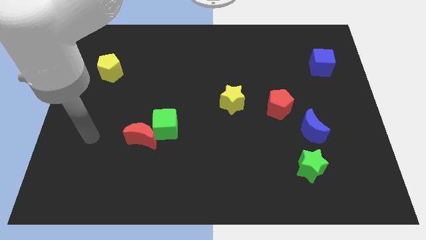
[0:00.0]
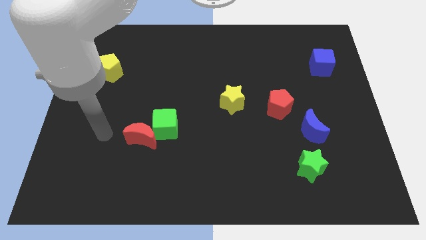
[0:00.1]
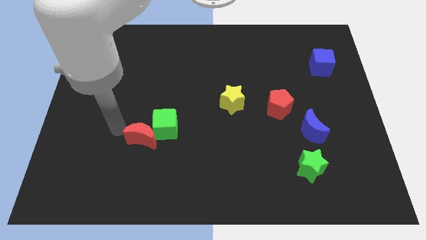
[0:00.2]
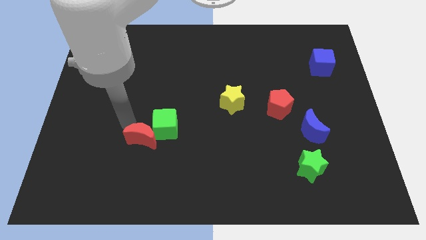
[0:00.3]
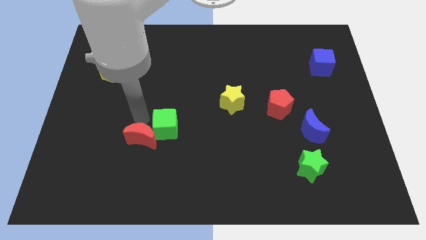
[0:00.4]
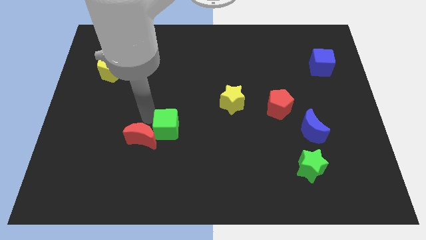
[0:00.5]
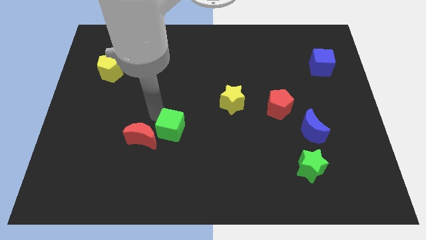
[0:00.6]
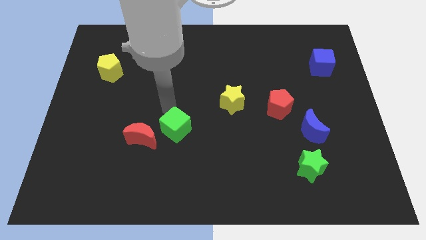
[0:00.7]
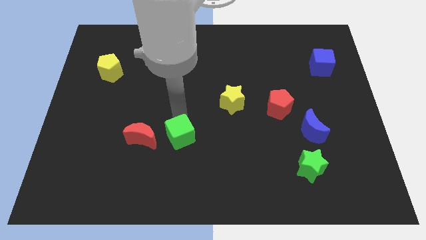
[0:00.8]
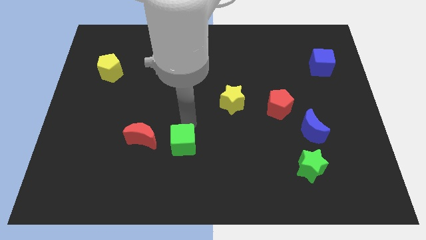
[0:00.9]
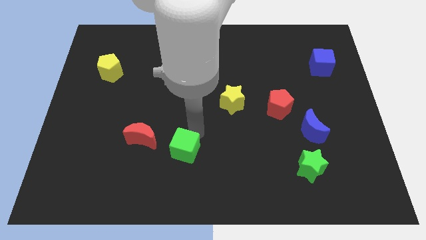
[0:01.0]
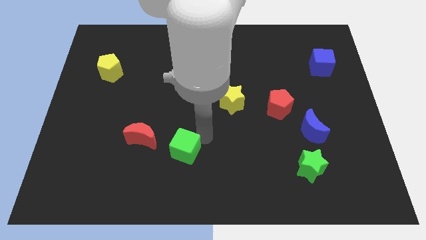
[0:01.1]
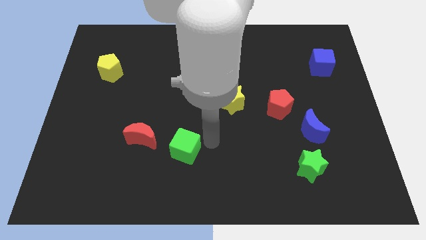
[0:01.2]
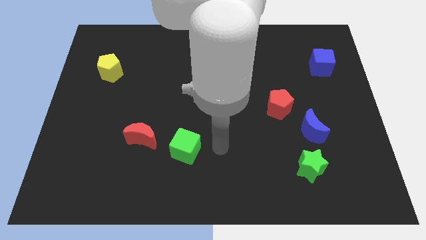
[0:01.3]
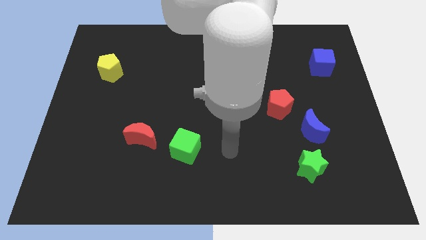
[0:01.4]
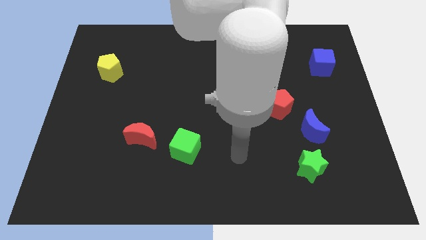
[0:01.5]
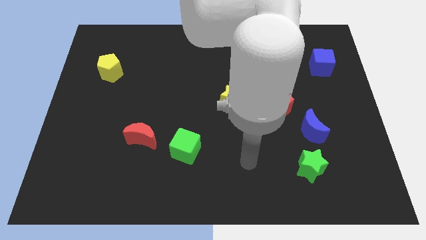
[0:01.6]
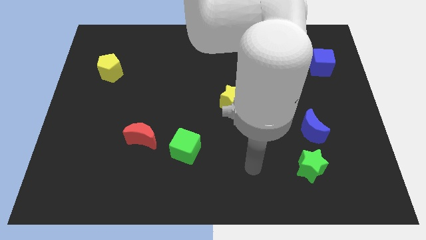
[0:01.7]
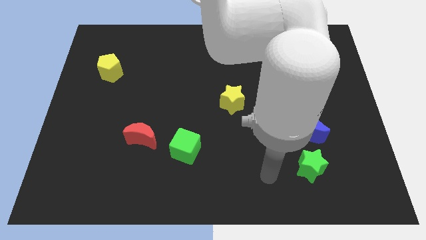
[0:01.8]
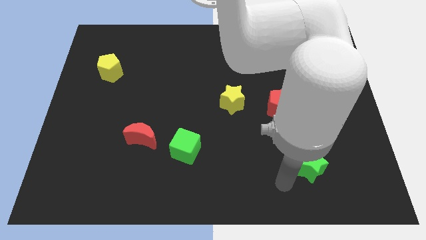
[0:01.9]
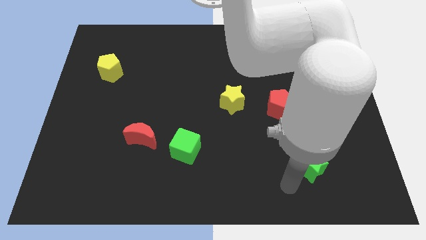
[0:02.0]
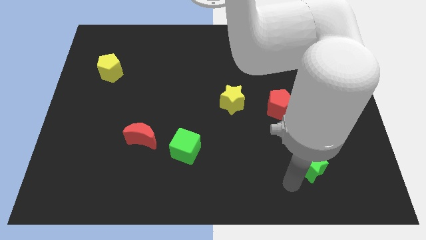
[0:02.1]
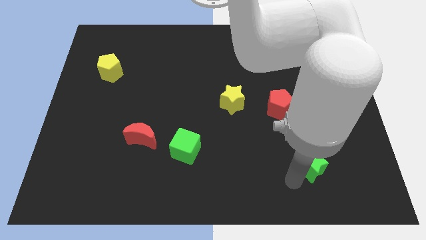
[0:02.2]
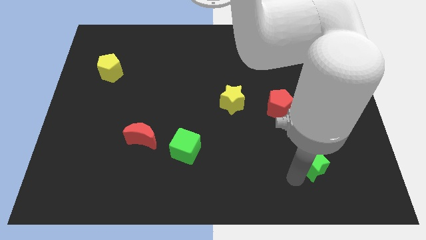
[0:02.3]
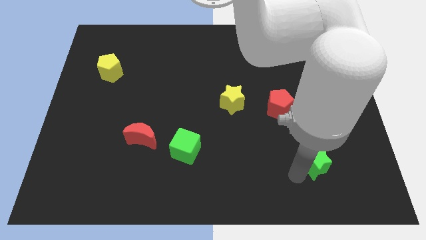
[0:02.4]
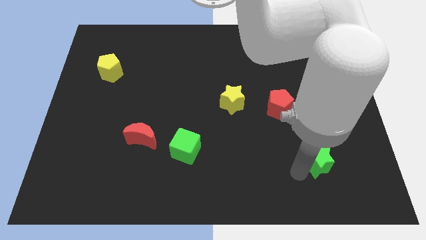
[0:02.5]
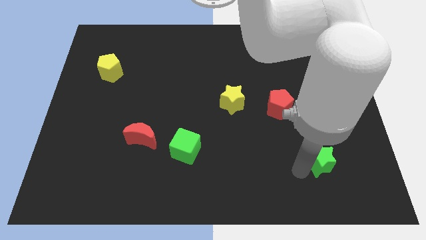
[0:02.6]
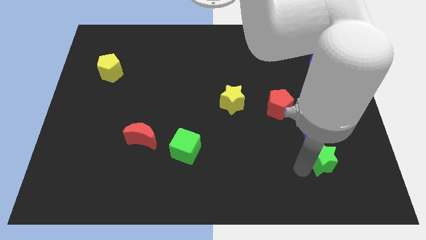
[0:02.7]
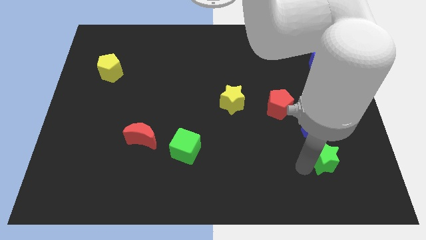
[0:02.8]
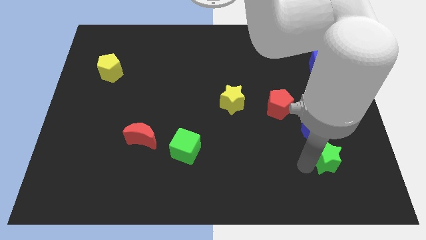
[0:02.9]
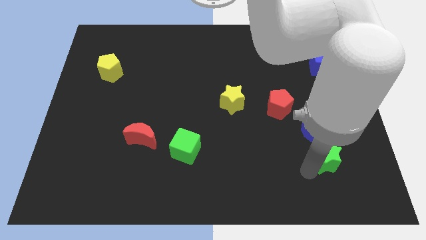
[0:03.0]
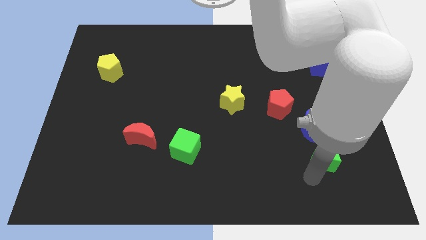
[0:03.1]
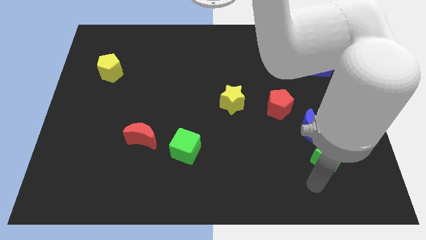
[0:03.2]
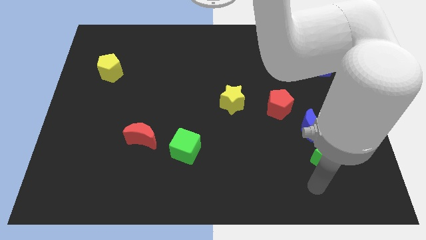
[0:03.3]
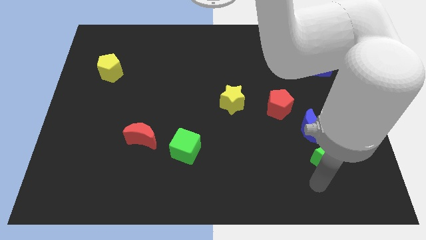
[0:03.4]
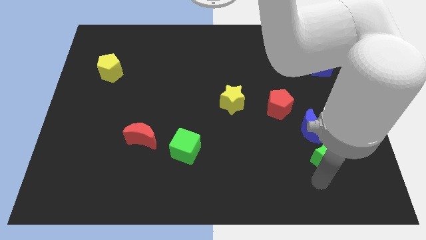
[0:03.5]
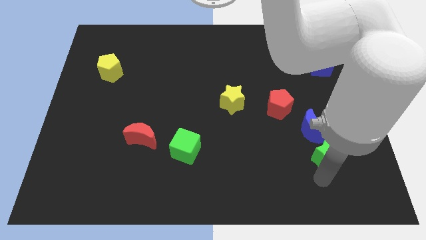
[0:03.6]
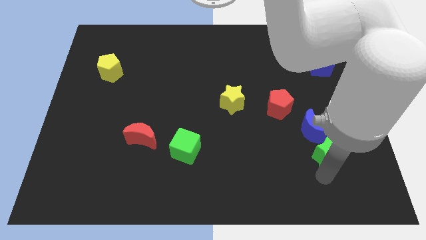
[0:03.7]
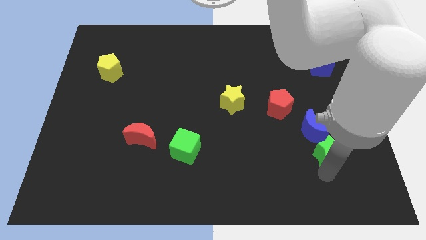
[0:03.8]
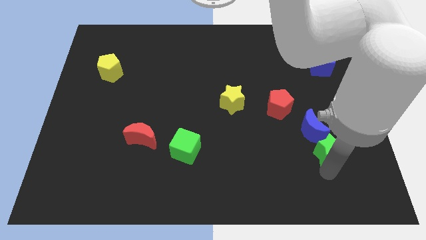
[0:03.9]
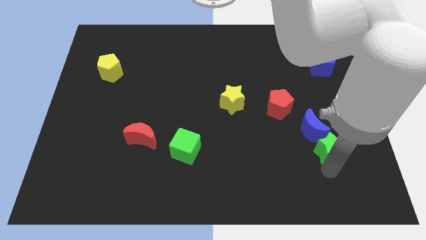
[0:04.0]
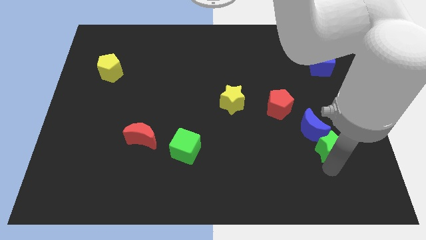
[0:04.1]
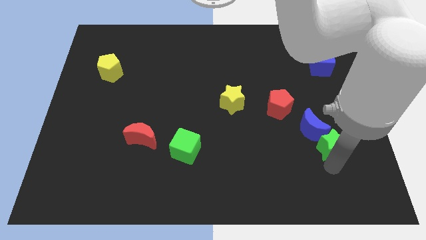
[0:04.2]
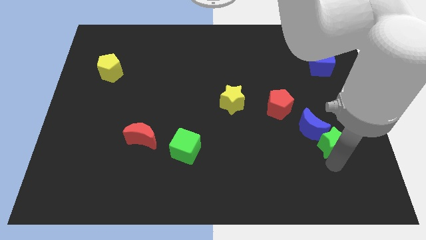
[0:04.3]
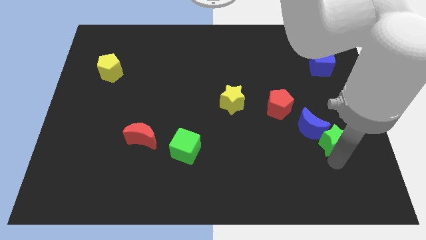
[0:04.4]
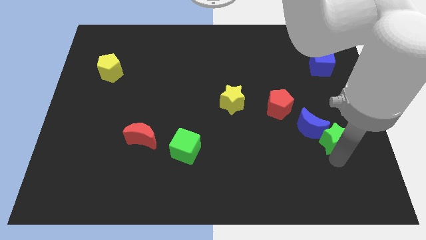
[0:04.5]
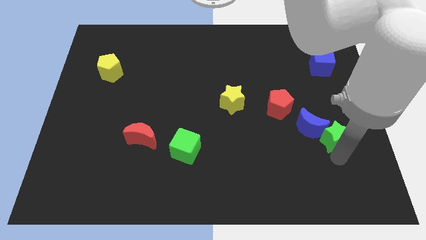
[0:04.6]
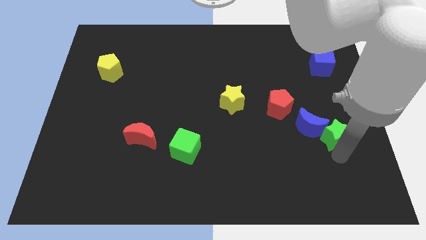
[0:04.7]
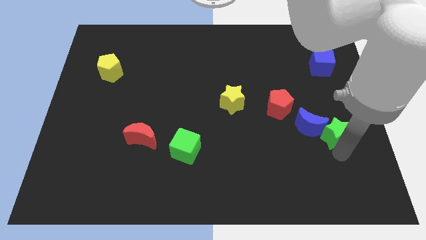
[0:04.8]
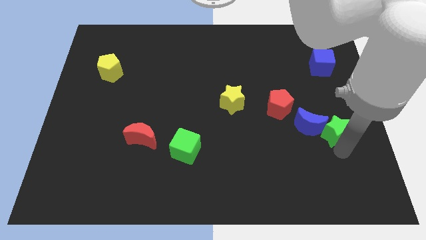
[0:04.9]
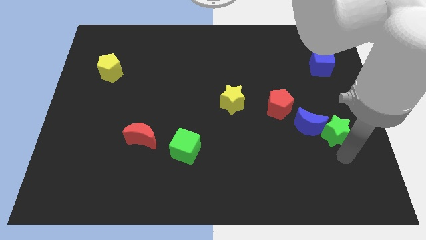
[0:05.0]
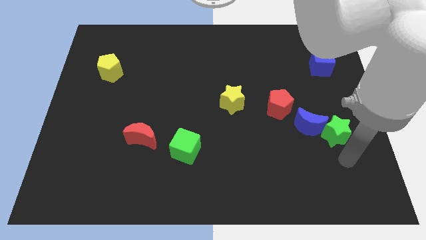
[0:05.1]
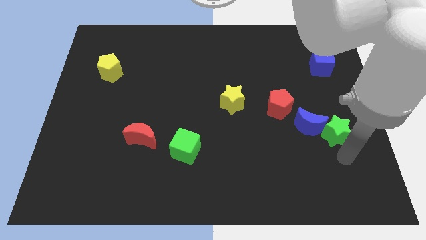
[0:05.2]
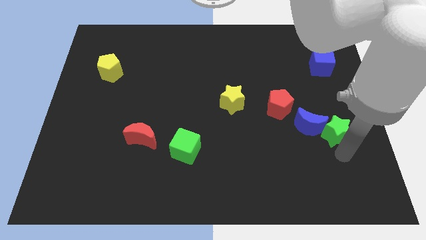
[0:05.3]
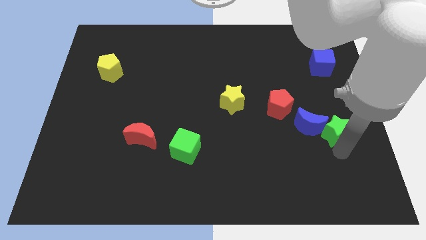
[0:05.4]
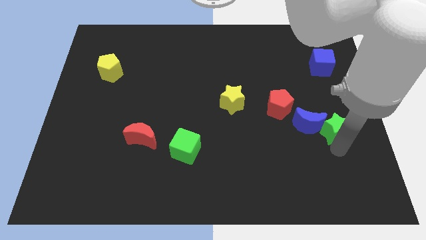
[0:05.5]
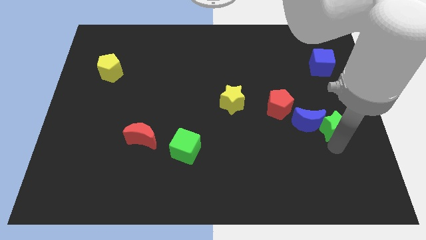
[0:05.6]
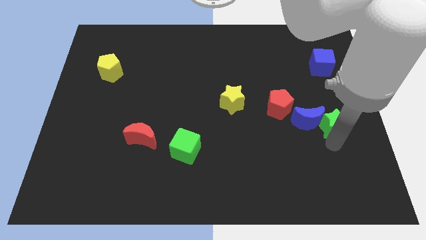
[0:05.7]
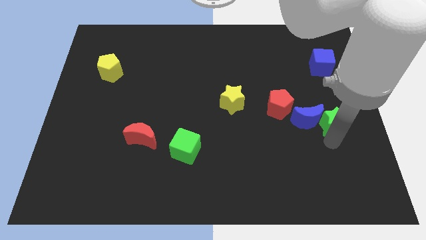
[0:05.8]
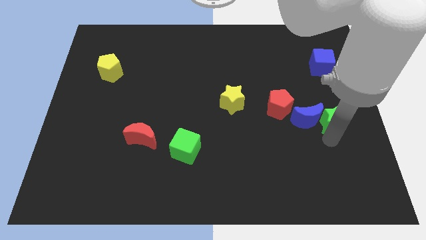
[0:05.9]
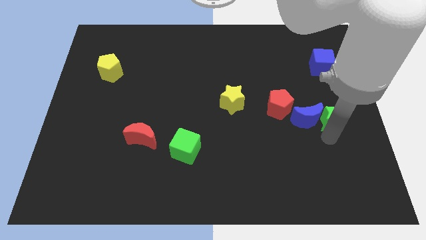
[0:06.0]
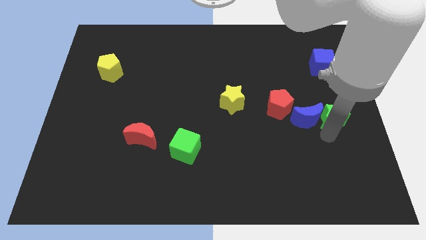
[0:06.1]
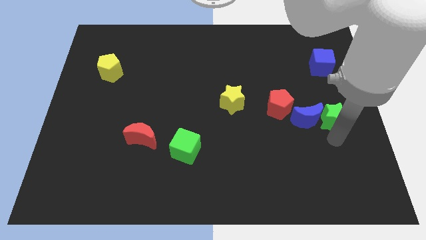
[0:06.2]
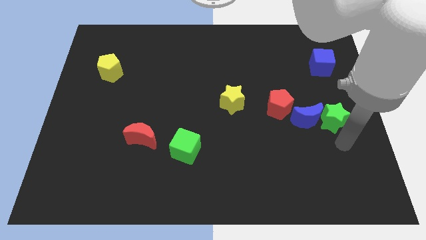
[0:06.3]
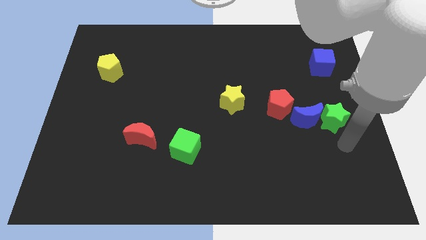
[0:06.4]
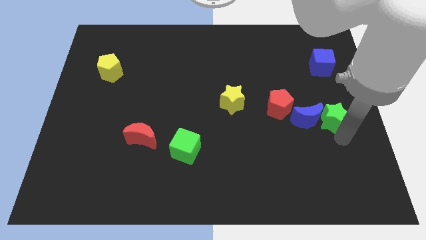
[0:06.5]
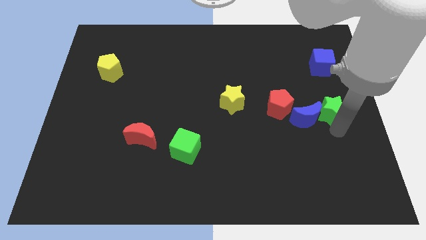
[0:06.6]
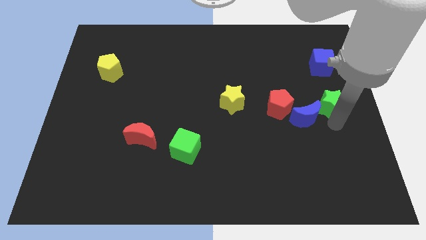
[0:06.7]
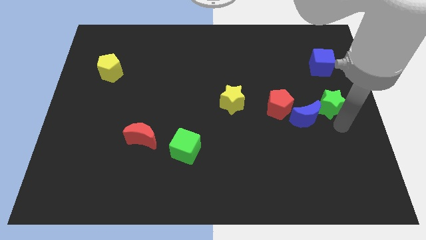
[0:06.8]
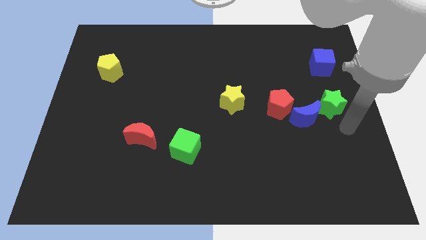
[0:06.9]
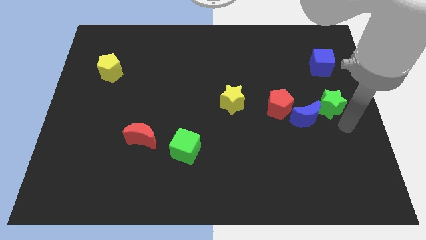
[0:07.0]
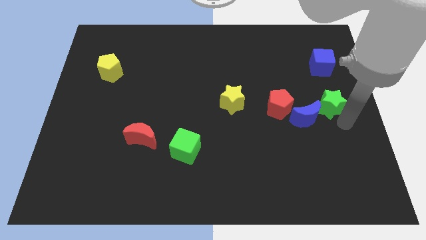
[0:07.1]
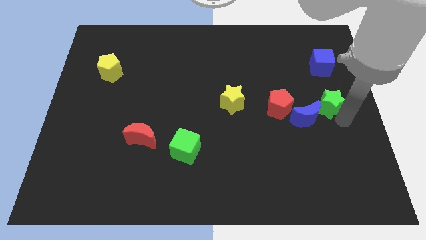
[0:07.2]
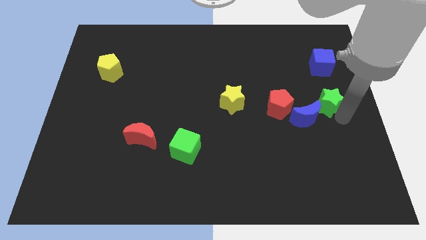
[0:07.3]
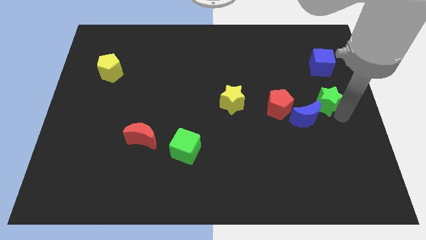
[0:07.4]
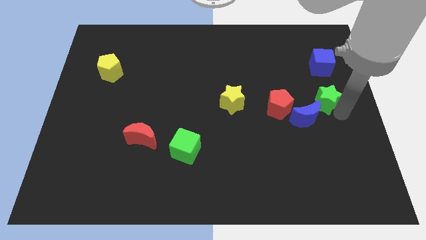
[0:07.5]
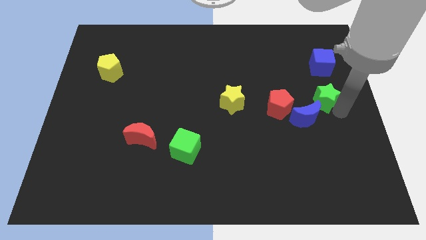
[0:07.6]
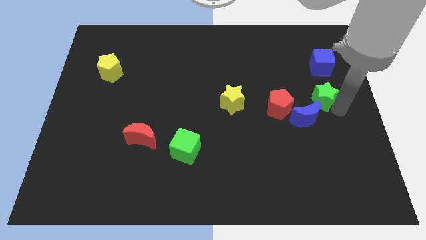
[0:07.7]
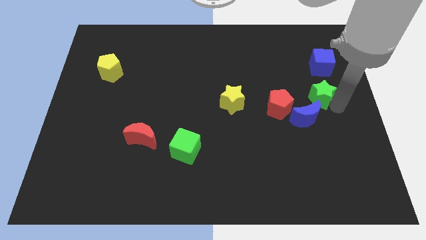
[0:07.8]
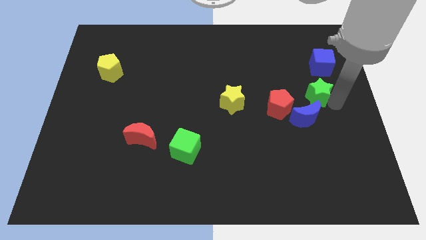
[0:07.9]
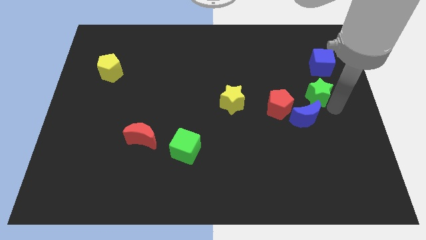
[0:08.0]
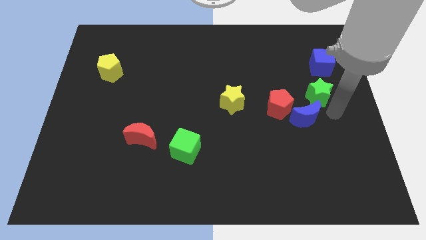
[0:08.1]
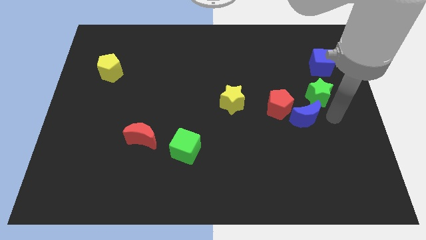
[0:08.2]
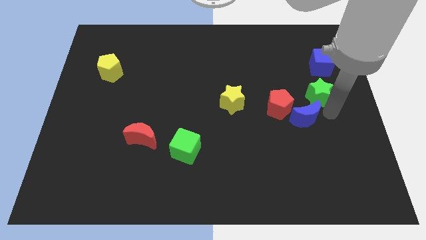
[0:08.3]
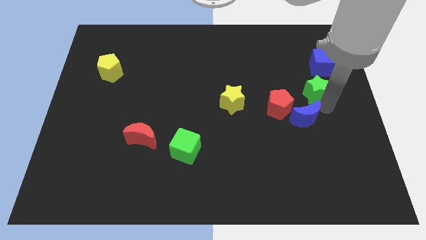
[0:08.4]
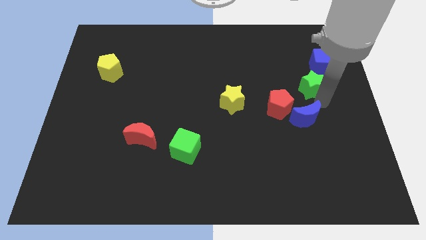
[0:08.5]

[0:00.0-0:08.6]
push the green star up
